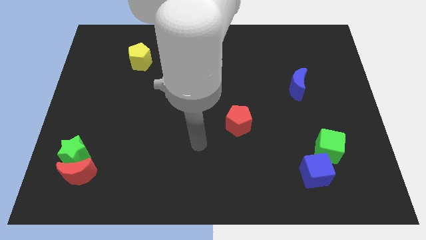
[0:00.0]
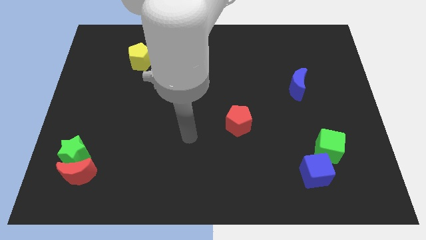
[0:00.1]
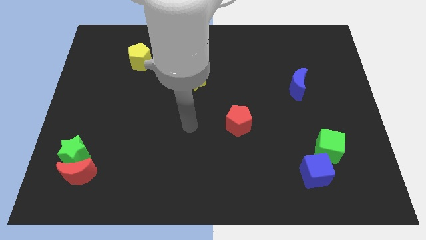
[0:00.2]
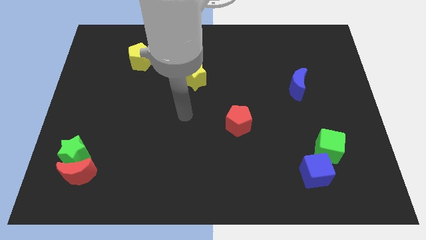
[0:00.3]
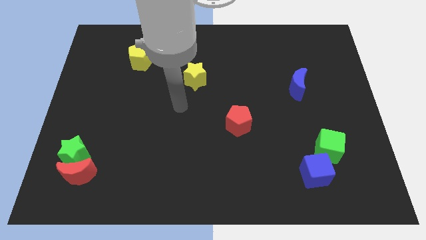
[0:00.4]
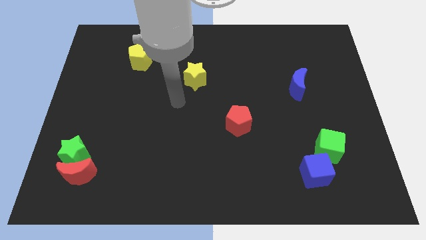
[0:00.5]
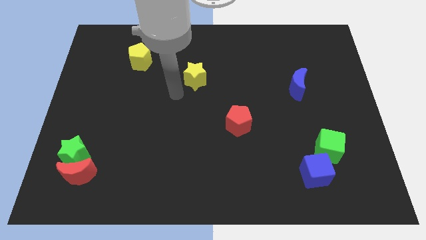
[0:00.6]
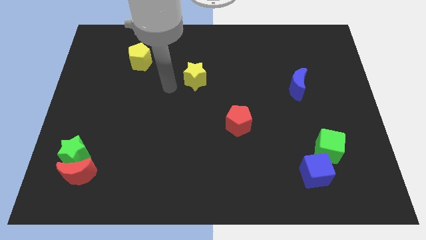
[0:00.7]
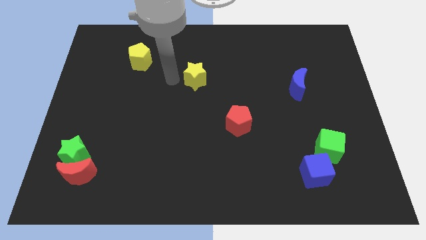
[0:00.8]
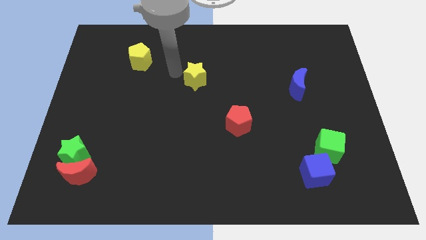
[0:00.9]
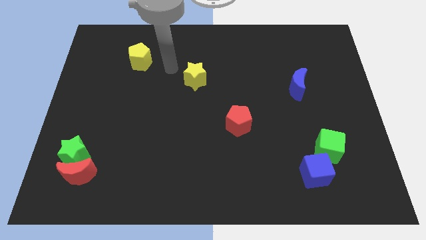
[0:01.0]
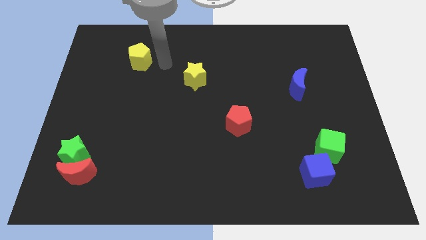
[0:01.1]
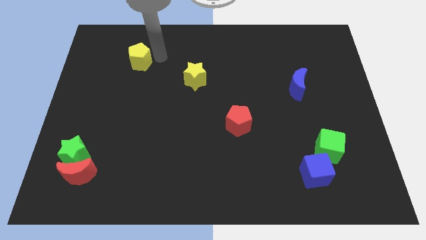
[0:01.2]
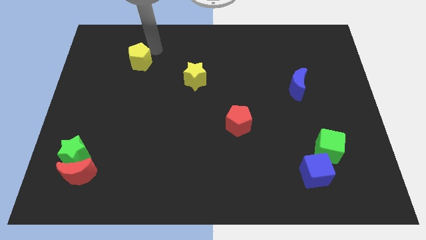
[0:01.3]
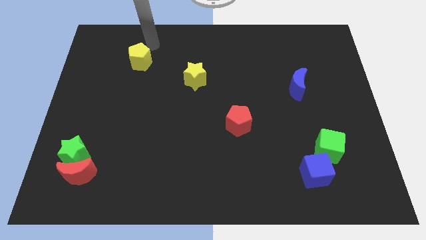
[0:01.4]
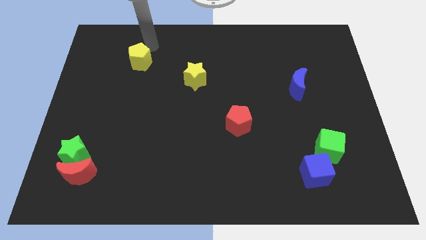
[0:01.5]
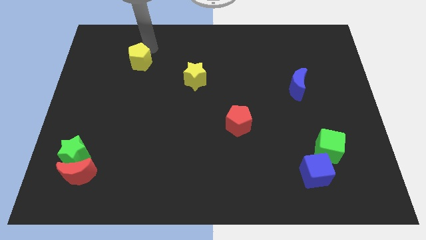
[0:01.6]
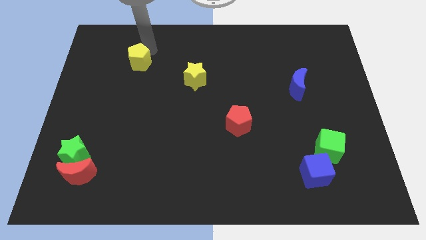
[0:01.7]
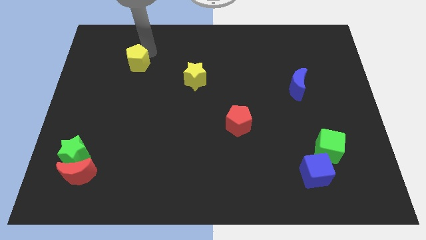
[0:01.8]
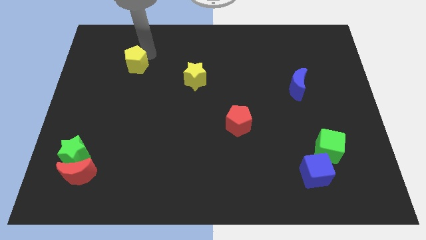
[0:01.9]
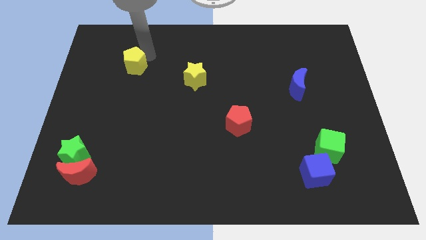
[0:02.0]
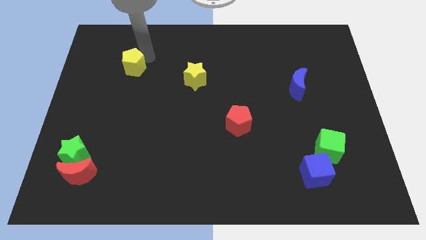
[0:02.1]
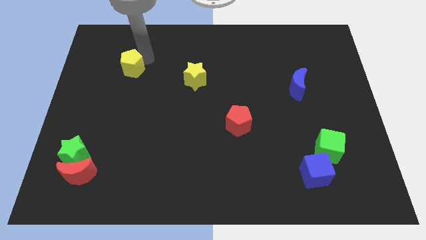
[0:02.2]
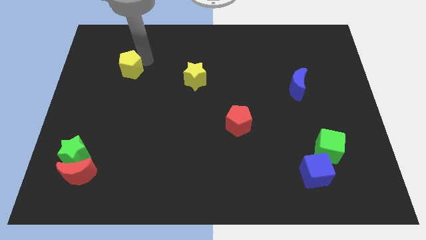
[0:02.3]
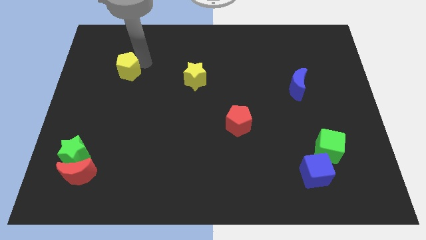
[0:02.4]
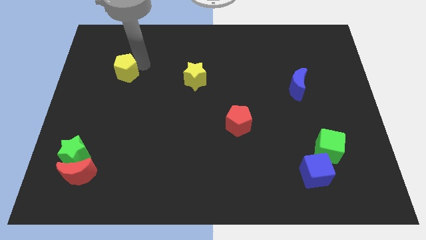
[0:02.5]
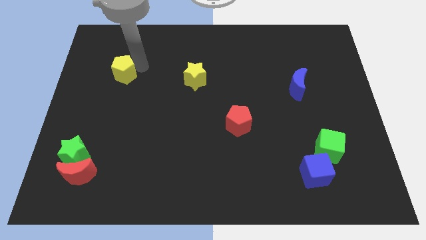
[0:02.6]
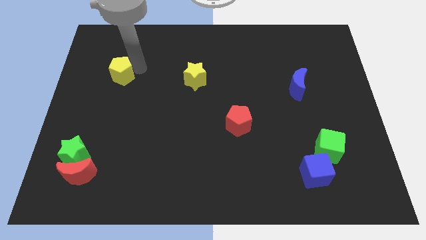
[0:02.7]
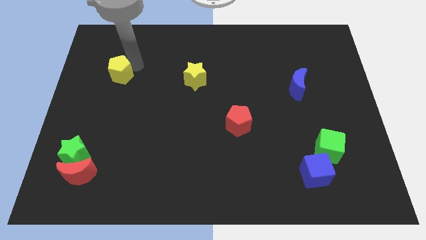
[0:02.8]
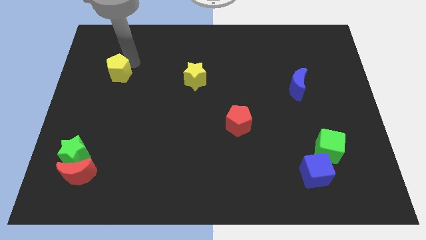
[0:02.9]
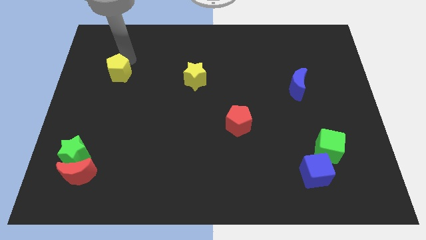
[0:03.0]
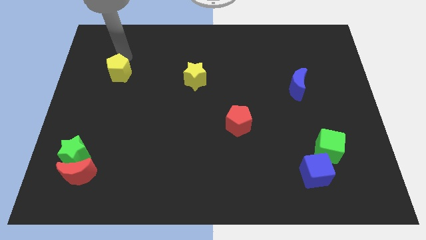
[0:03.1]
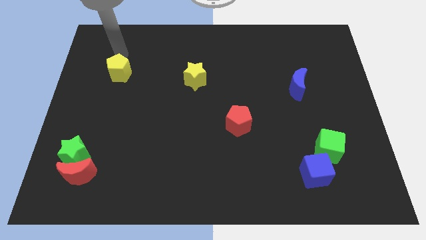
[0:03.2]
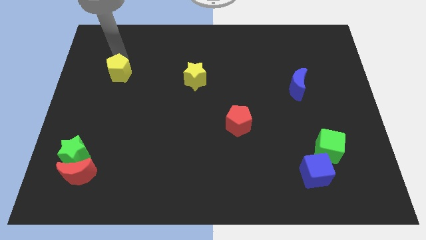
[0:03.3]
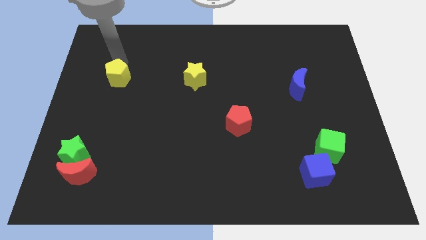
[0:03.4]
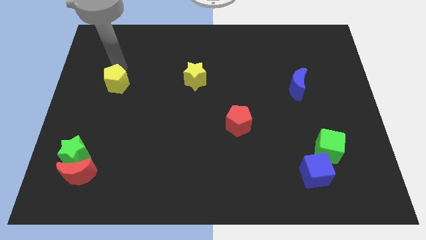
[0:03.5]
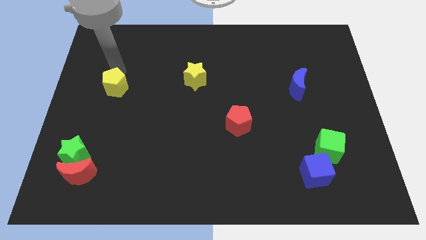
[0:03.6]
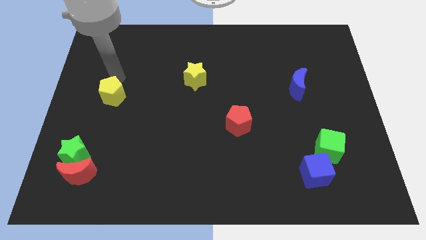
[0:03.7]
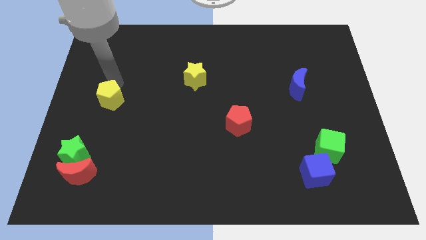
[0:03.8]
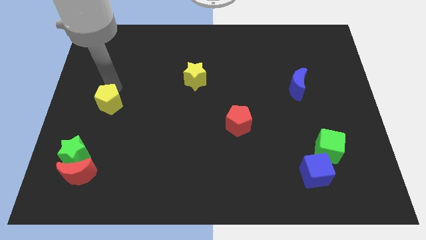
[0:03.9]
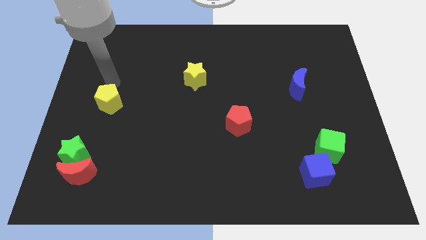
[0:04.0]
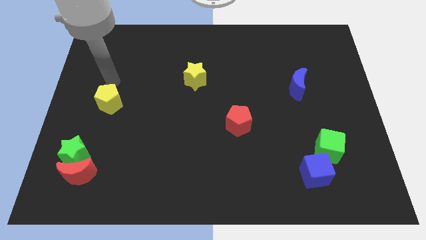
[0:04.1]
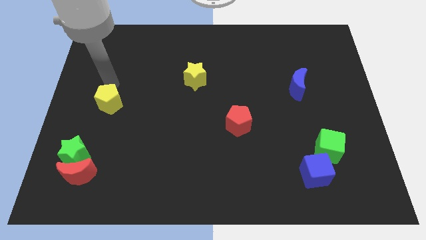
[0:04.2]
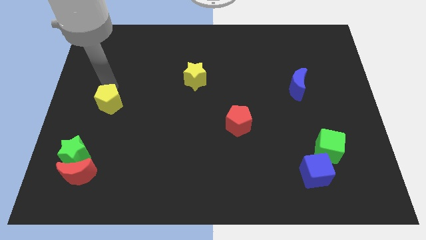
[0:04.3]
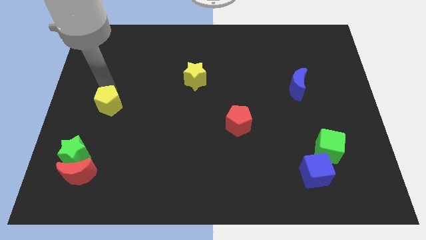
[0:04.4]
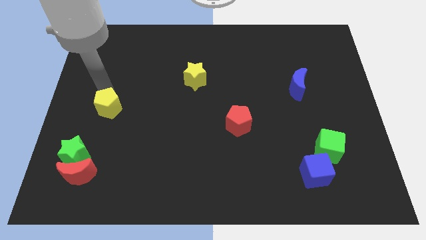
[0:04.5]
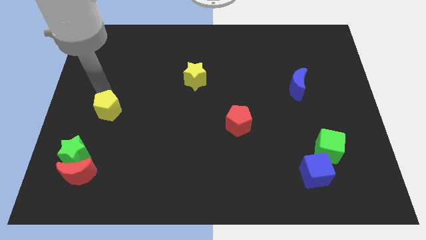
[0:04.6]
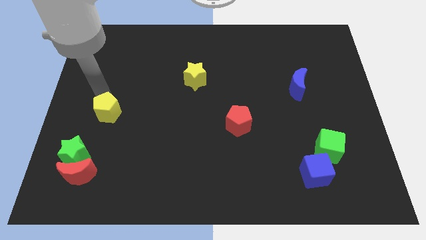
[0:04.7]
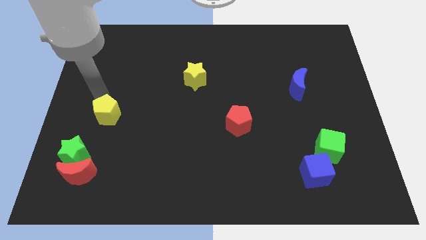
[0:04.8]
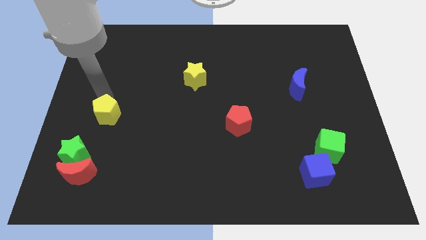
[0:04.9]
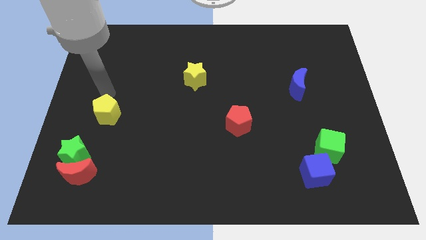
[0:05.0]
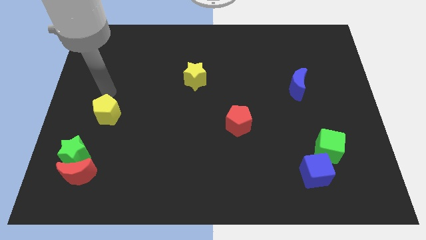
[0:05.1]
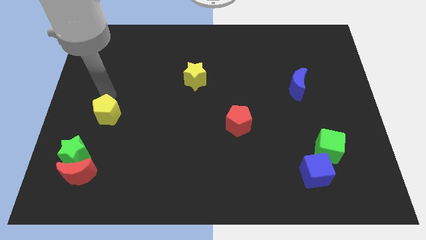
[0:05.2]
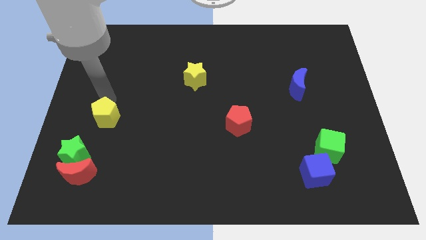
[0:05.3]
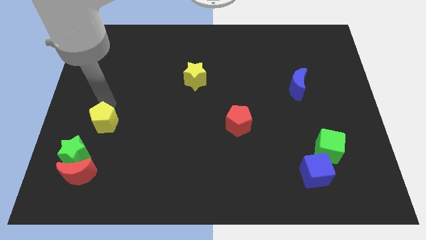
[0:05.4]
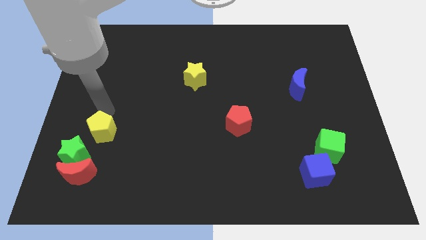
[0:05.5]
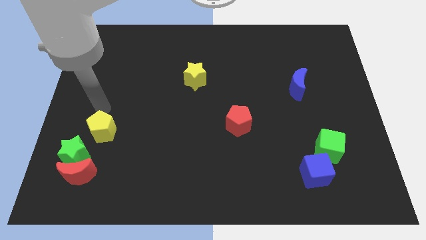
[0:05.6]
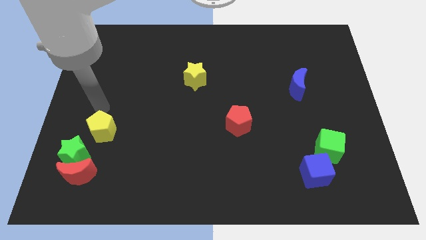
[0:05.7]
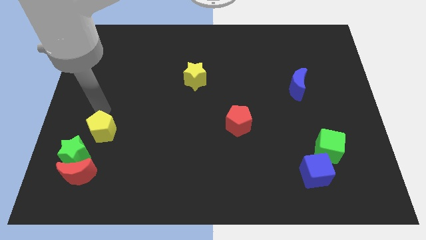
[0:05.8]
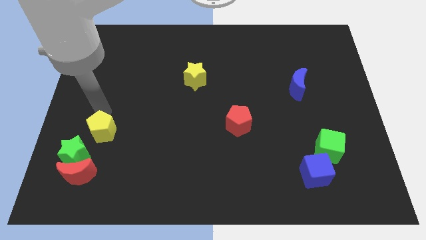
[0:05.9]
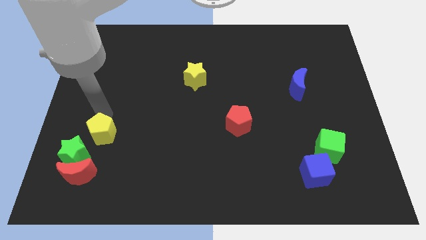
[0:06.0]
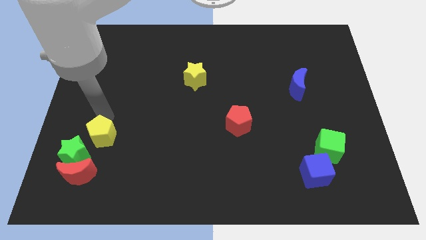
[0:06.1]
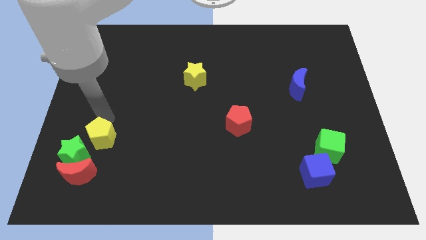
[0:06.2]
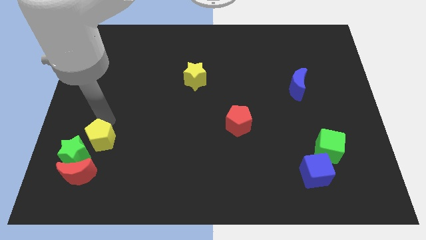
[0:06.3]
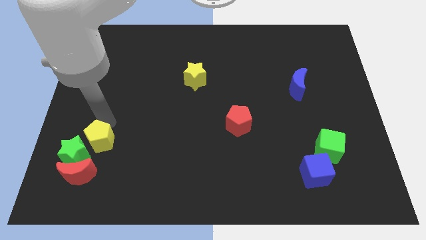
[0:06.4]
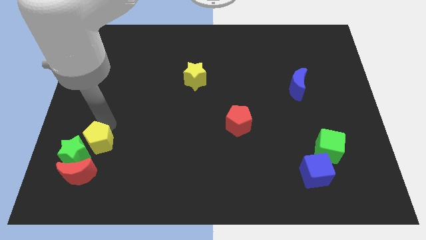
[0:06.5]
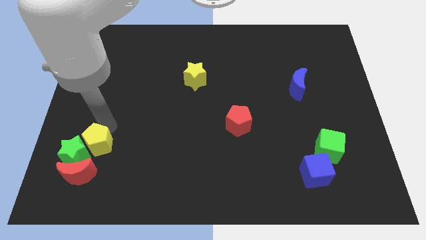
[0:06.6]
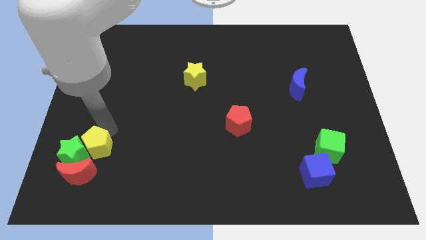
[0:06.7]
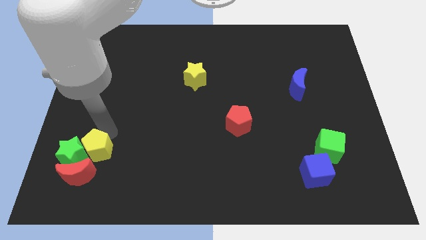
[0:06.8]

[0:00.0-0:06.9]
push the yellow pentagon to the bottom right of the green star
